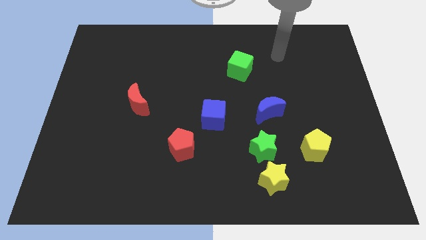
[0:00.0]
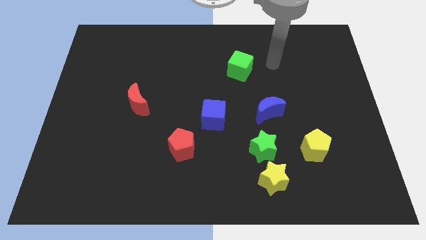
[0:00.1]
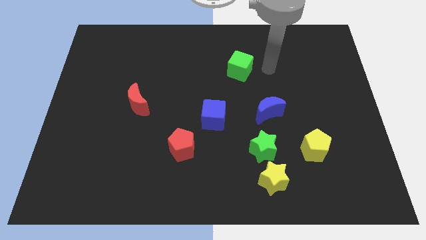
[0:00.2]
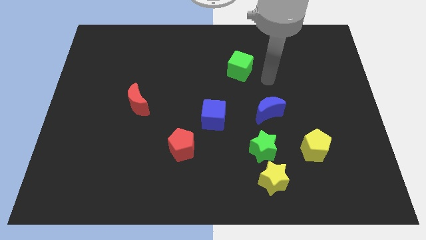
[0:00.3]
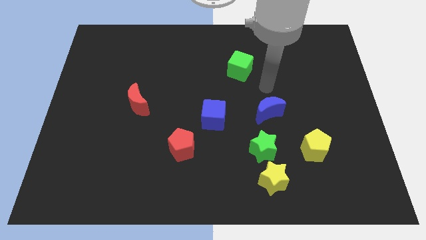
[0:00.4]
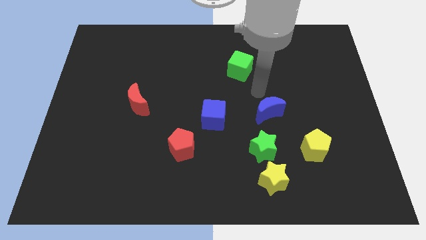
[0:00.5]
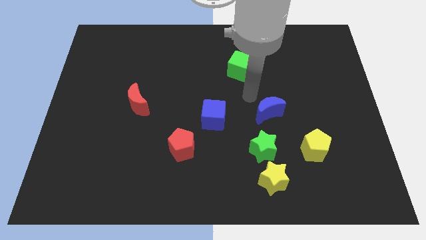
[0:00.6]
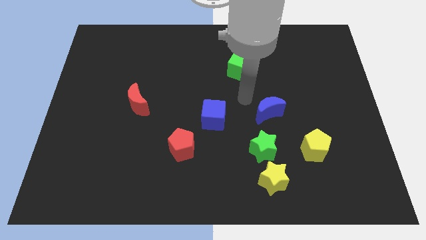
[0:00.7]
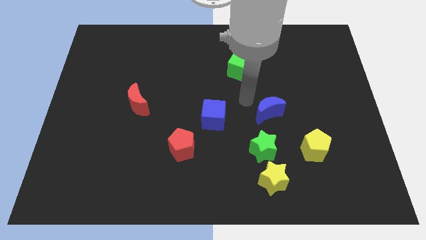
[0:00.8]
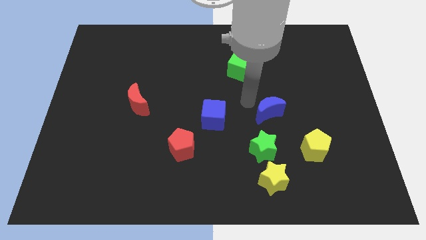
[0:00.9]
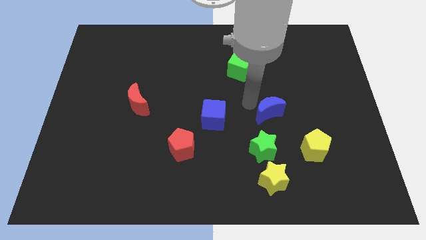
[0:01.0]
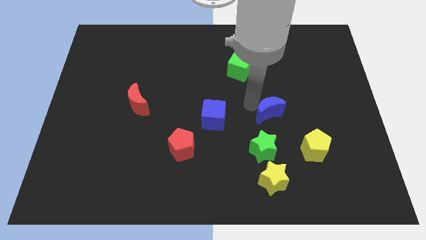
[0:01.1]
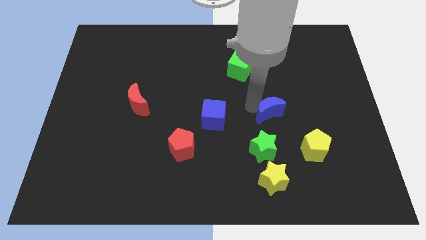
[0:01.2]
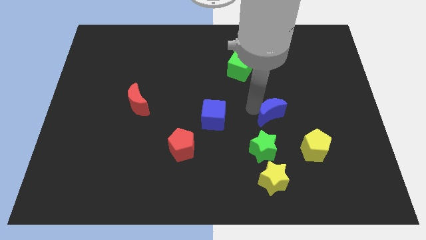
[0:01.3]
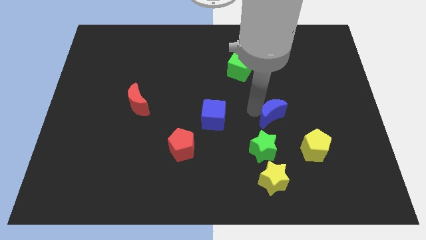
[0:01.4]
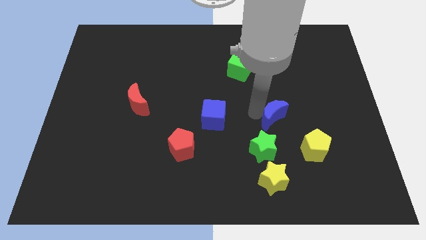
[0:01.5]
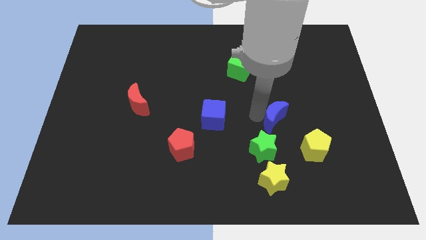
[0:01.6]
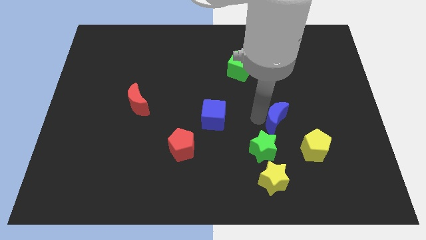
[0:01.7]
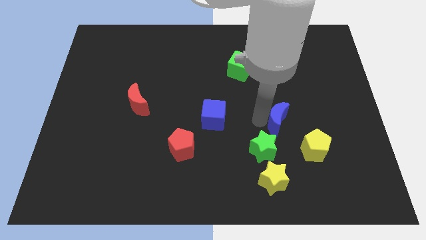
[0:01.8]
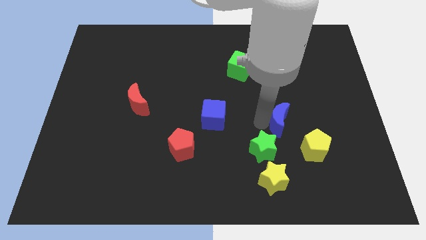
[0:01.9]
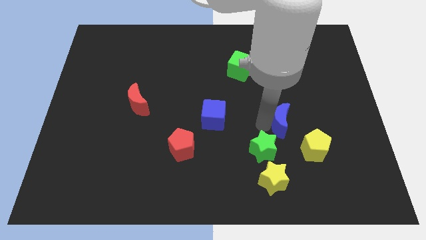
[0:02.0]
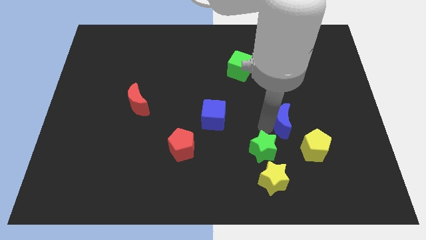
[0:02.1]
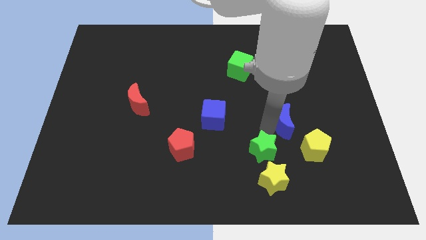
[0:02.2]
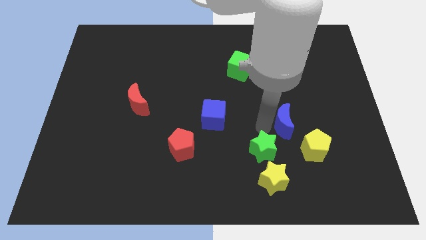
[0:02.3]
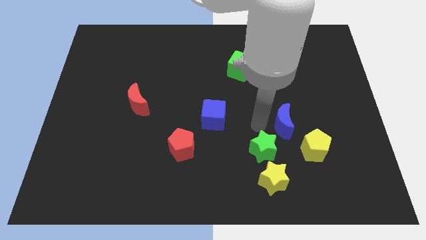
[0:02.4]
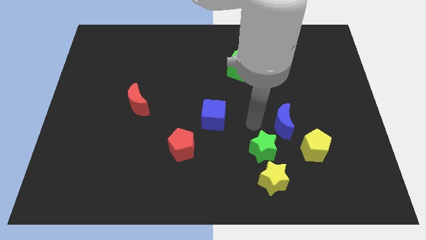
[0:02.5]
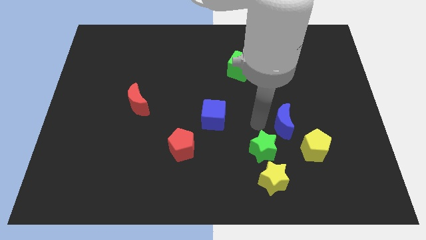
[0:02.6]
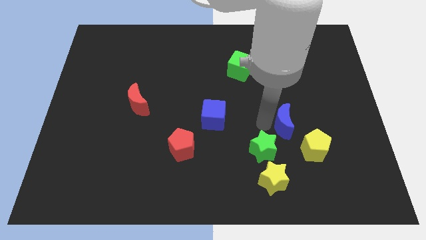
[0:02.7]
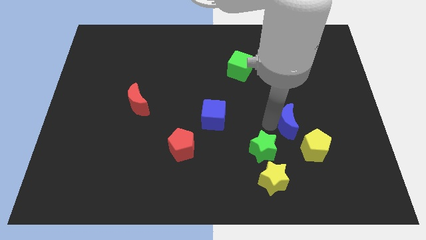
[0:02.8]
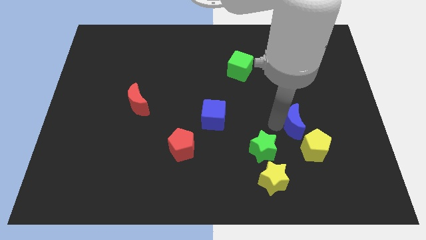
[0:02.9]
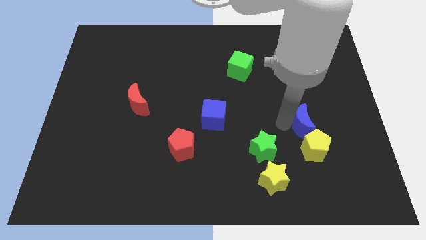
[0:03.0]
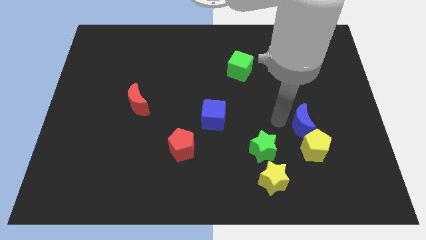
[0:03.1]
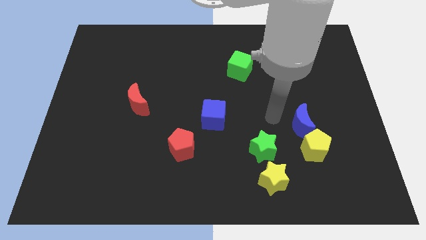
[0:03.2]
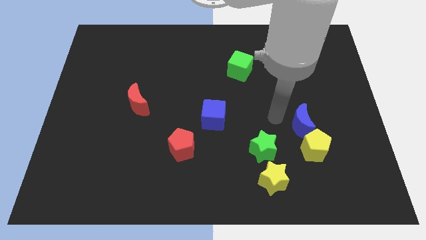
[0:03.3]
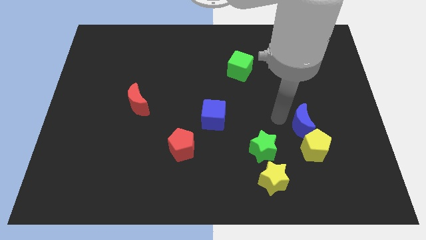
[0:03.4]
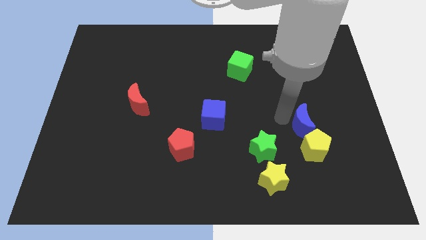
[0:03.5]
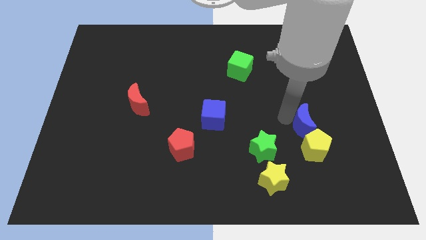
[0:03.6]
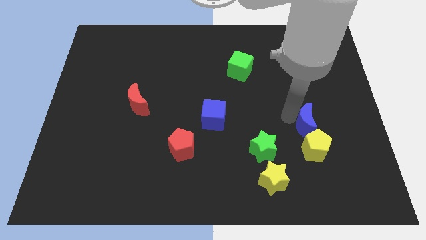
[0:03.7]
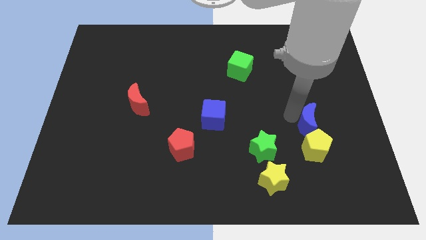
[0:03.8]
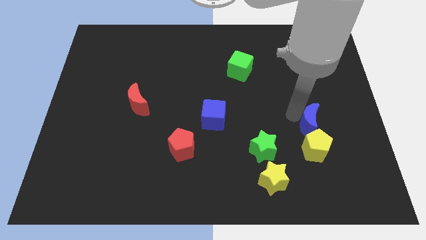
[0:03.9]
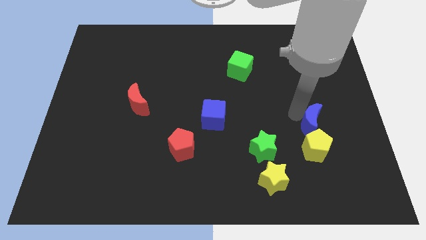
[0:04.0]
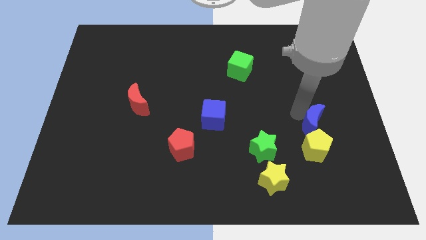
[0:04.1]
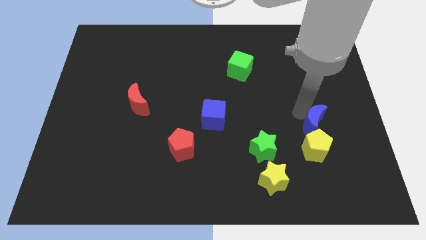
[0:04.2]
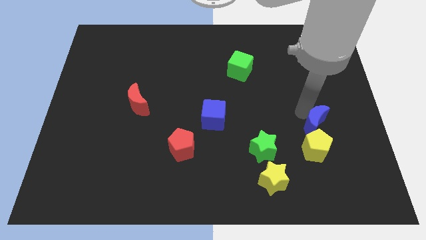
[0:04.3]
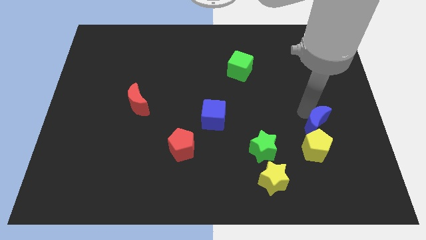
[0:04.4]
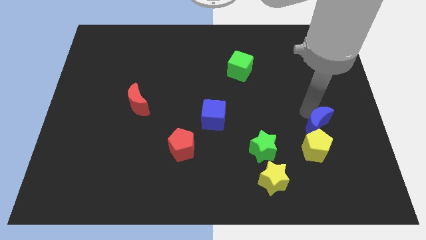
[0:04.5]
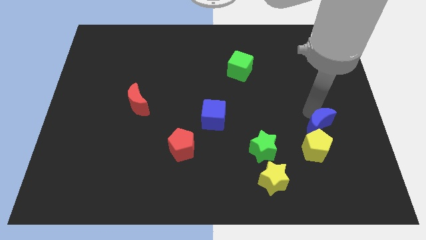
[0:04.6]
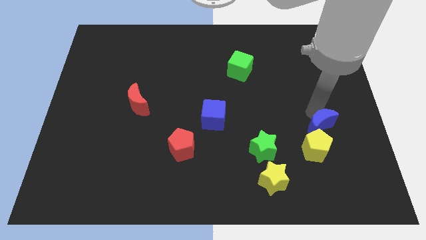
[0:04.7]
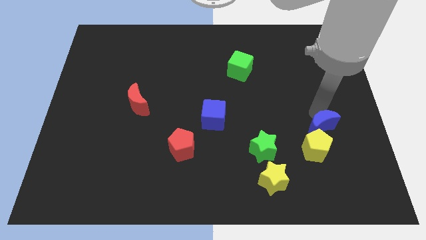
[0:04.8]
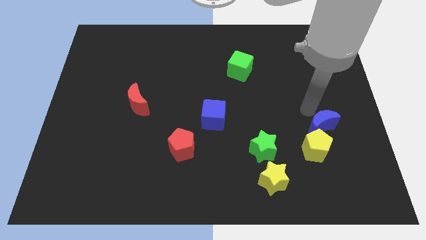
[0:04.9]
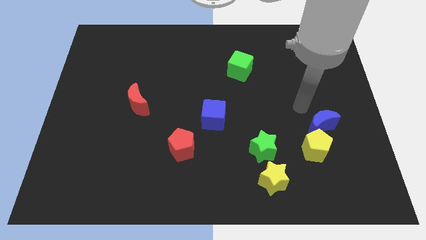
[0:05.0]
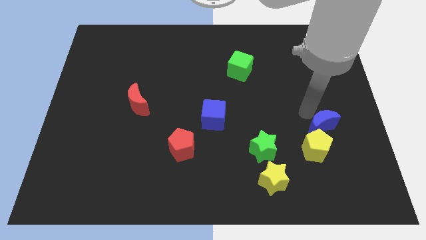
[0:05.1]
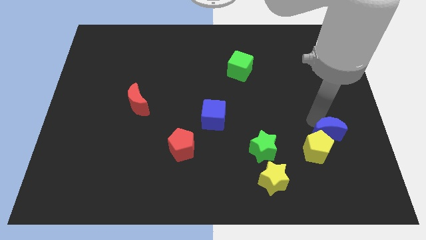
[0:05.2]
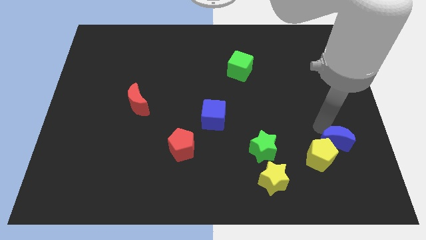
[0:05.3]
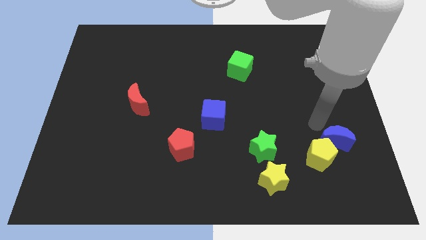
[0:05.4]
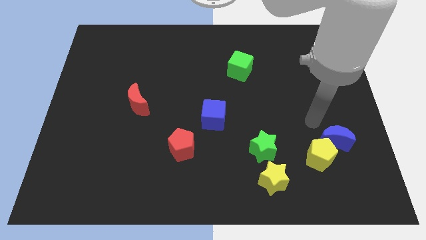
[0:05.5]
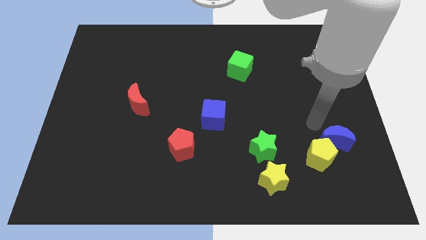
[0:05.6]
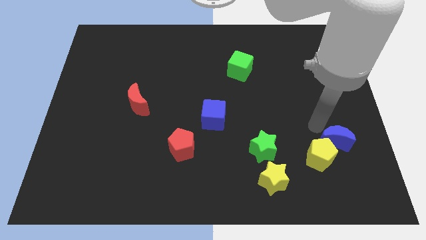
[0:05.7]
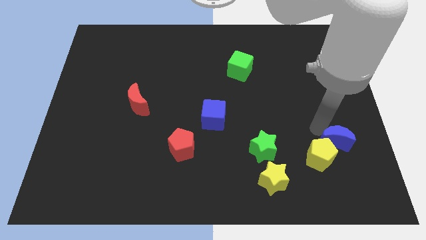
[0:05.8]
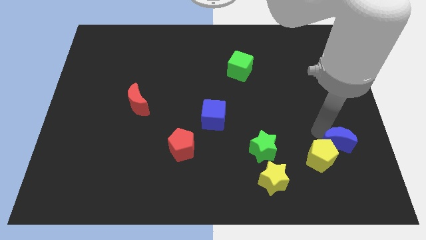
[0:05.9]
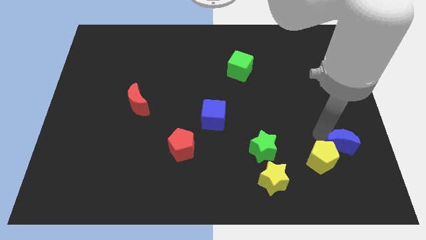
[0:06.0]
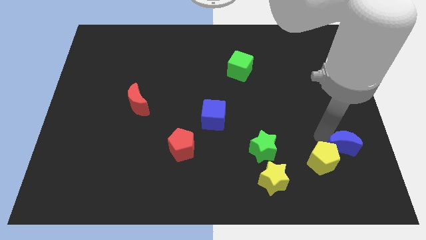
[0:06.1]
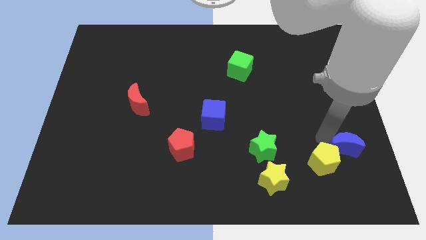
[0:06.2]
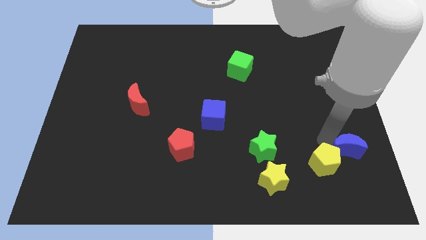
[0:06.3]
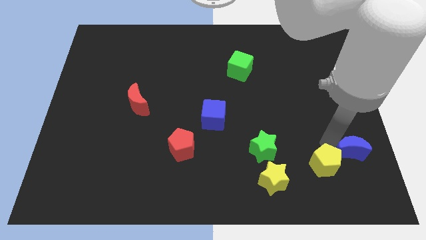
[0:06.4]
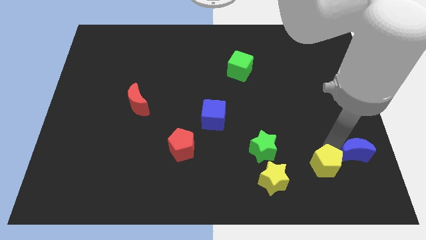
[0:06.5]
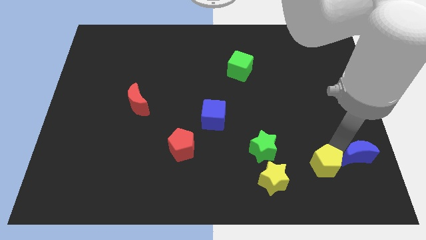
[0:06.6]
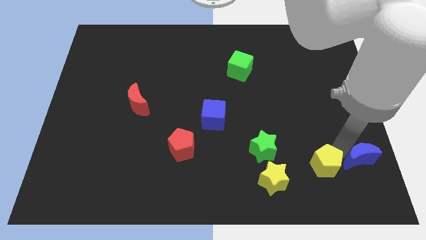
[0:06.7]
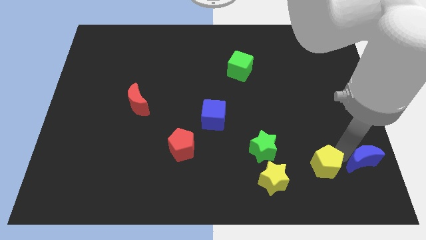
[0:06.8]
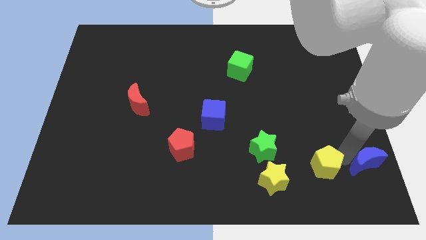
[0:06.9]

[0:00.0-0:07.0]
move the blue moon to the lower right corner
